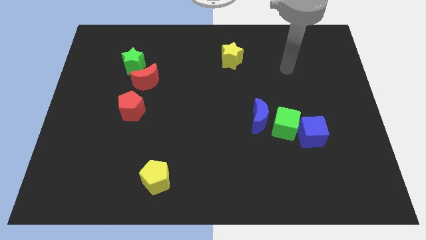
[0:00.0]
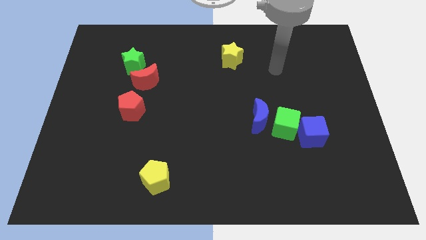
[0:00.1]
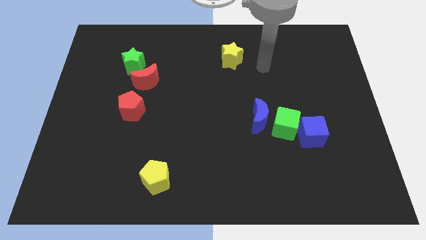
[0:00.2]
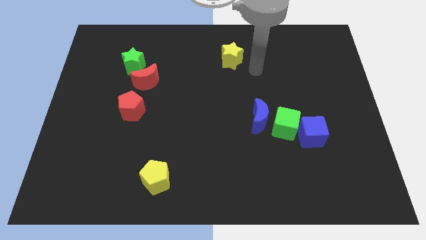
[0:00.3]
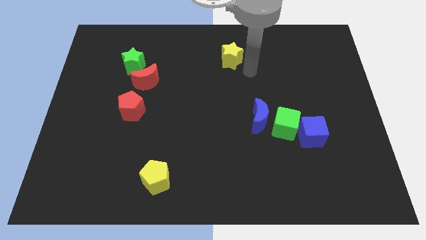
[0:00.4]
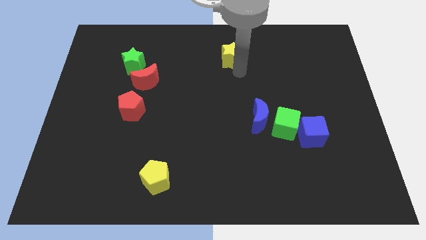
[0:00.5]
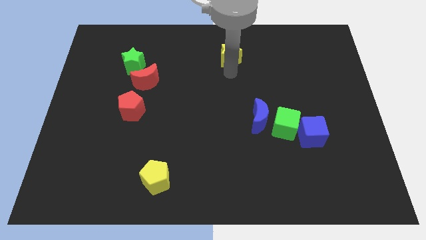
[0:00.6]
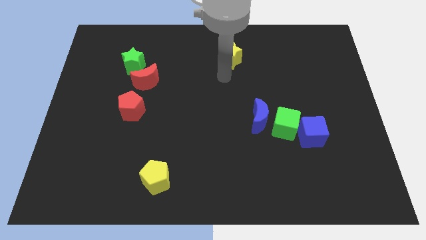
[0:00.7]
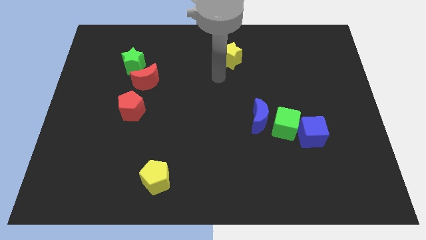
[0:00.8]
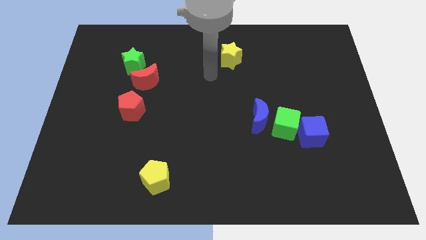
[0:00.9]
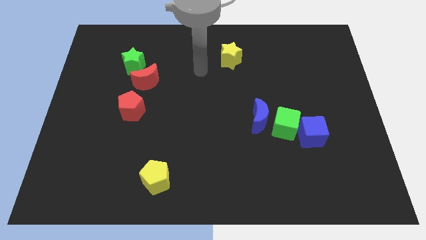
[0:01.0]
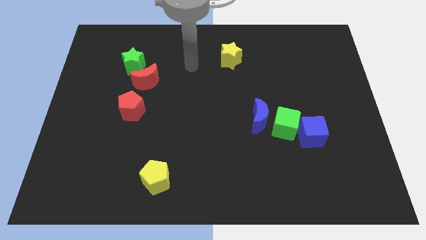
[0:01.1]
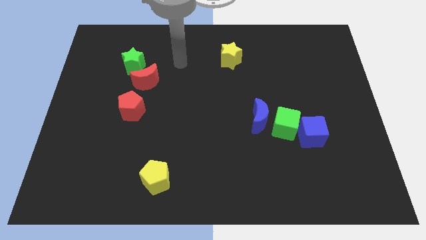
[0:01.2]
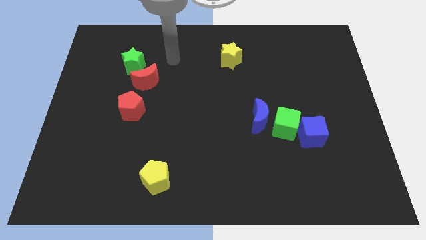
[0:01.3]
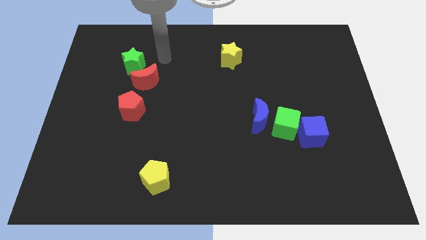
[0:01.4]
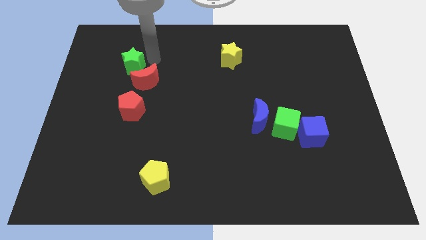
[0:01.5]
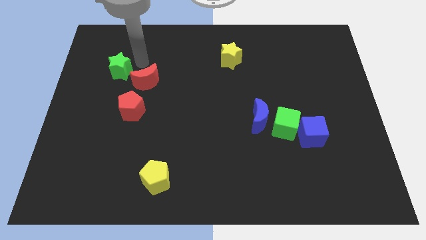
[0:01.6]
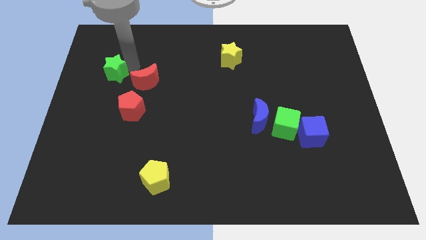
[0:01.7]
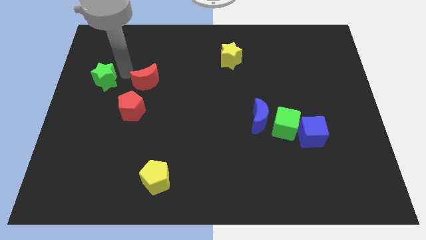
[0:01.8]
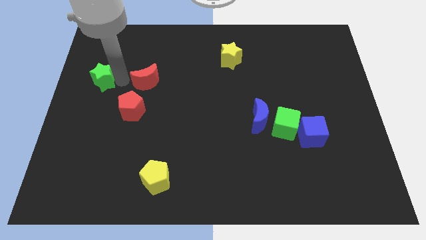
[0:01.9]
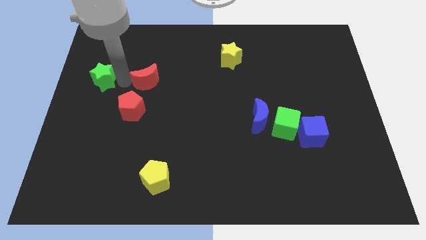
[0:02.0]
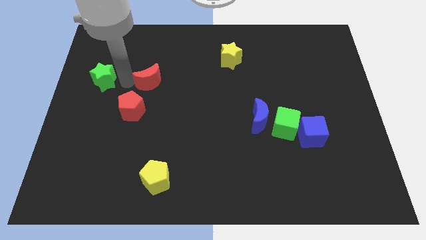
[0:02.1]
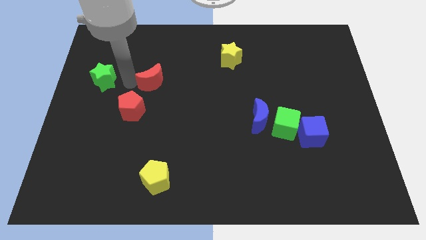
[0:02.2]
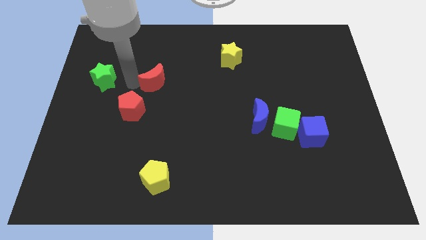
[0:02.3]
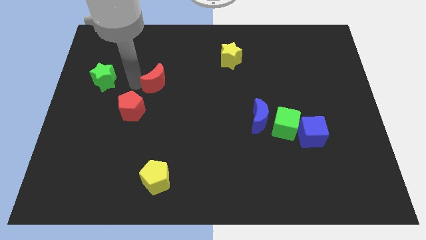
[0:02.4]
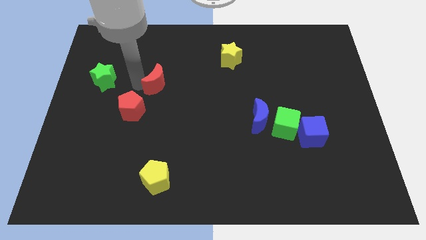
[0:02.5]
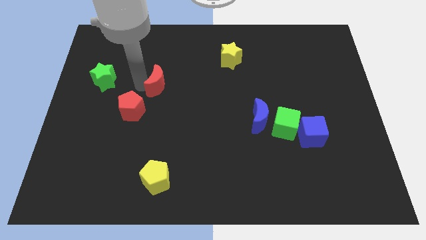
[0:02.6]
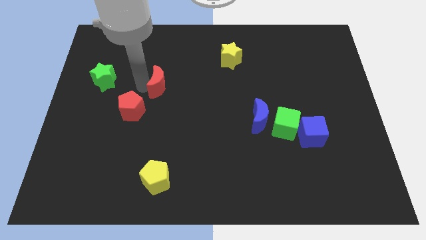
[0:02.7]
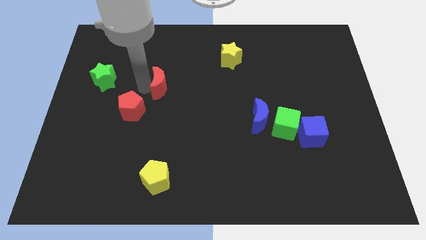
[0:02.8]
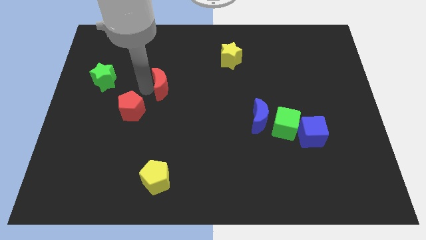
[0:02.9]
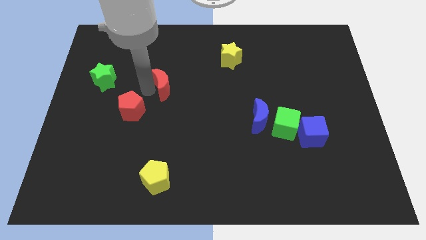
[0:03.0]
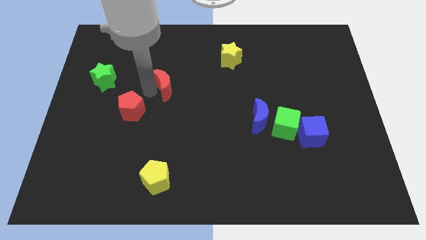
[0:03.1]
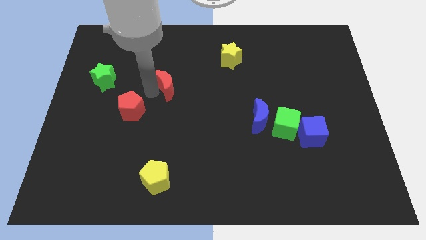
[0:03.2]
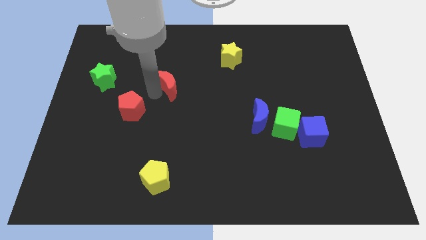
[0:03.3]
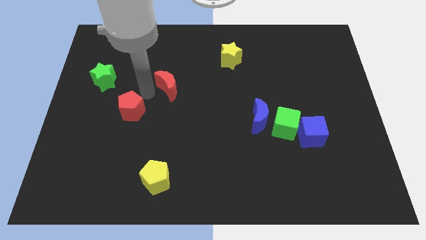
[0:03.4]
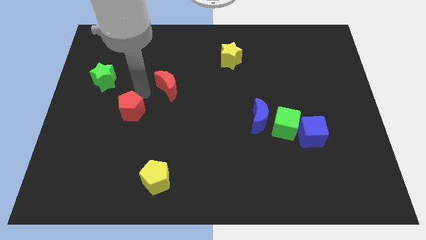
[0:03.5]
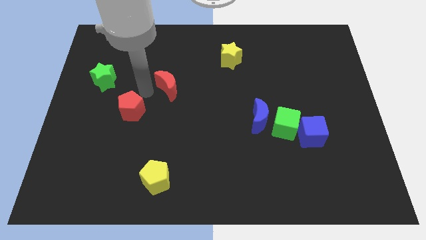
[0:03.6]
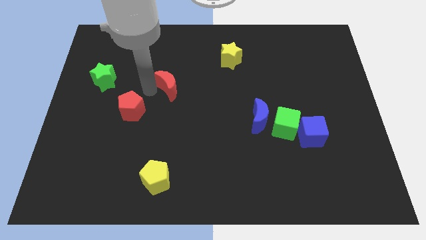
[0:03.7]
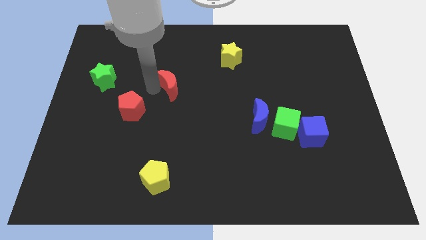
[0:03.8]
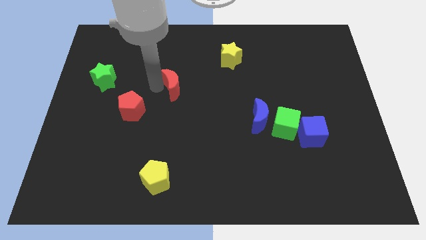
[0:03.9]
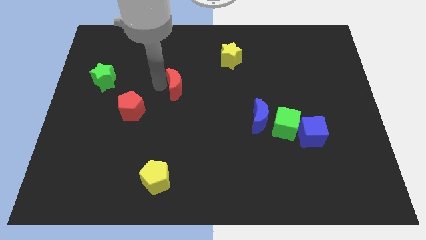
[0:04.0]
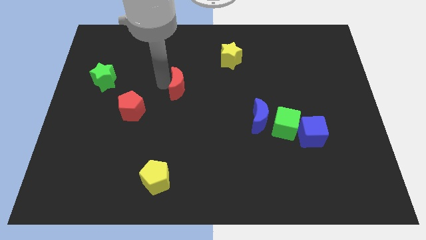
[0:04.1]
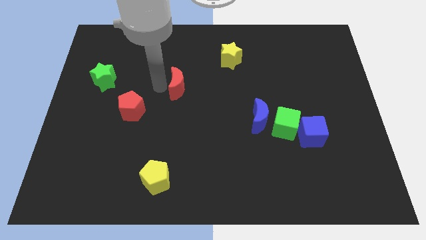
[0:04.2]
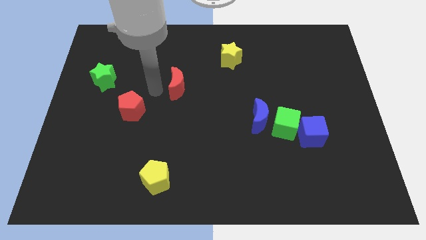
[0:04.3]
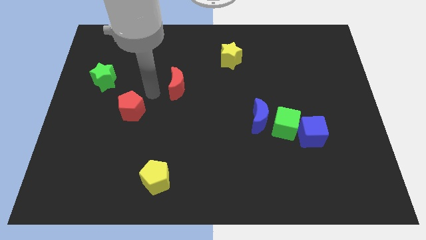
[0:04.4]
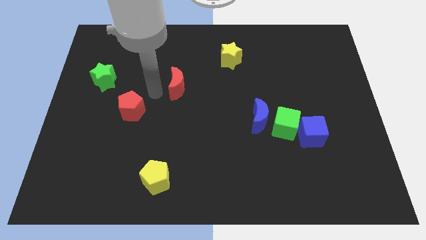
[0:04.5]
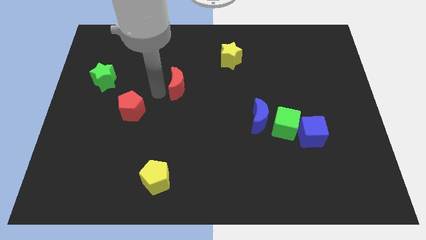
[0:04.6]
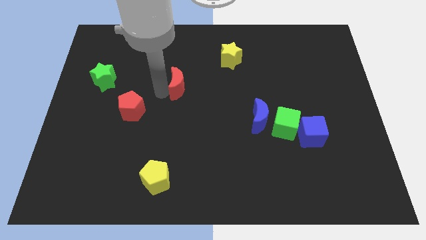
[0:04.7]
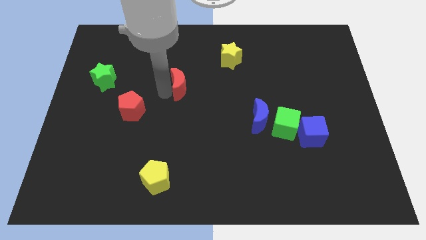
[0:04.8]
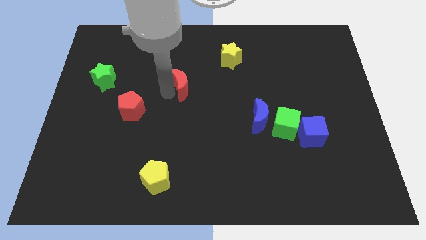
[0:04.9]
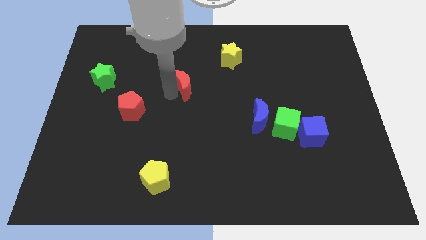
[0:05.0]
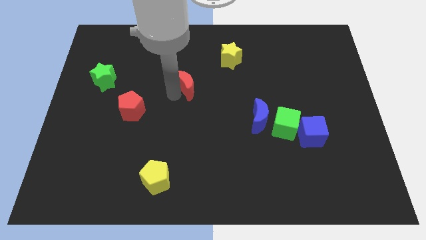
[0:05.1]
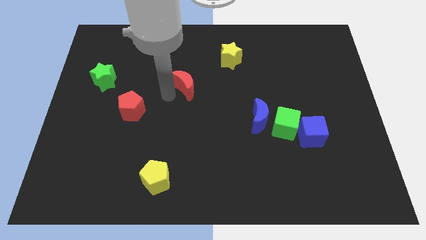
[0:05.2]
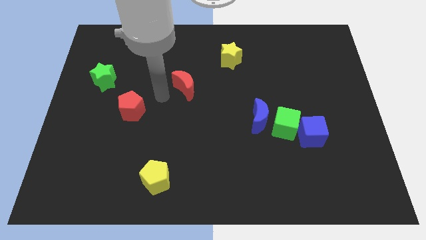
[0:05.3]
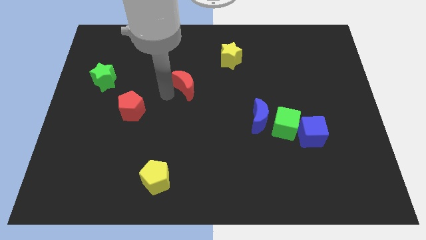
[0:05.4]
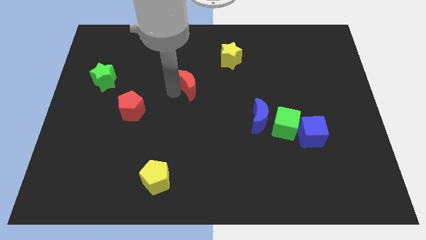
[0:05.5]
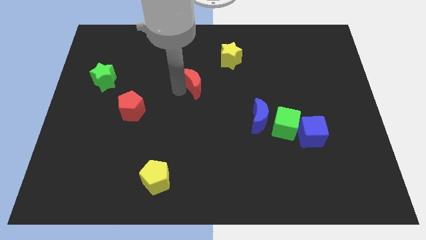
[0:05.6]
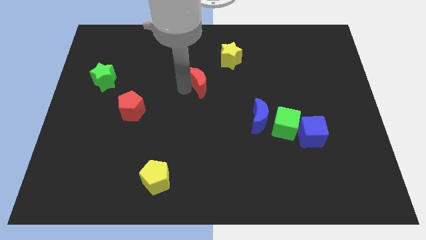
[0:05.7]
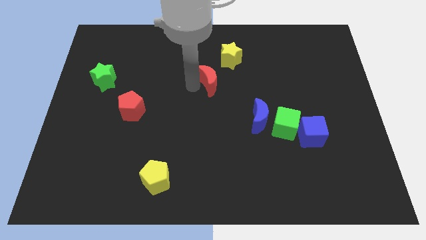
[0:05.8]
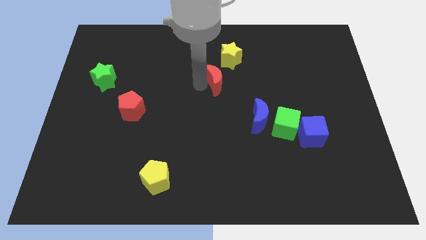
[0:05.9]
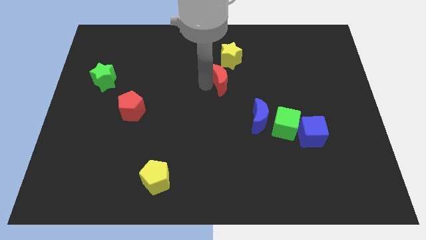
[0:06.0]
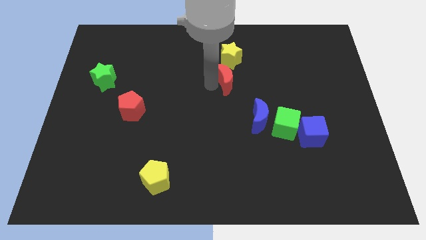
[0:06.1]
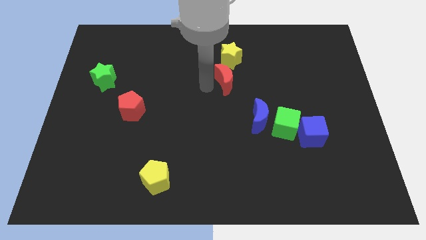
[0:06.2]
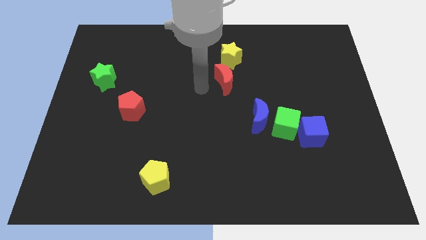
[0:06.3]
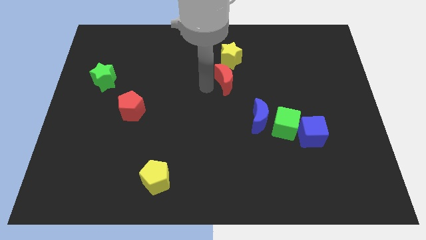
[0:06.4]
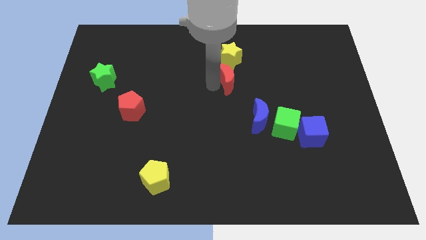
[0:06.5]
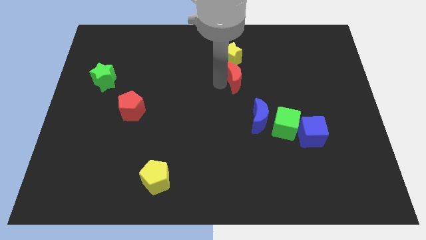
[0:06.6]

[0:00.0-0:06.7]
move the red moon to the bottom right of the yellow star

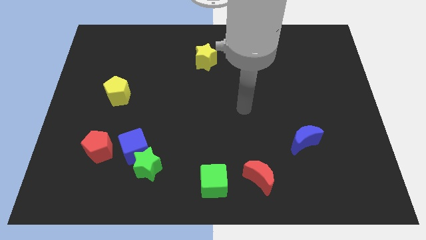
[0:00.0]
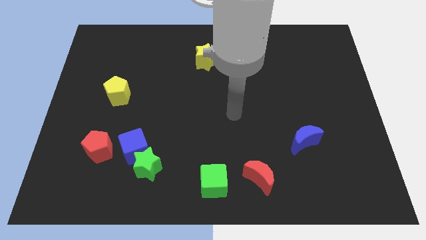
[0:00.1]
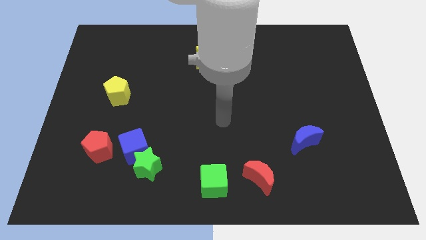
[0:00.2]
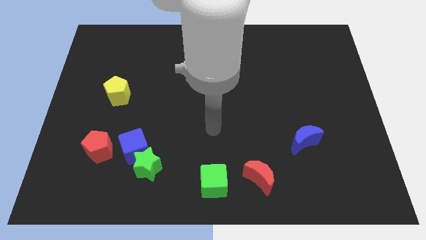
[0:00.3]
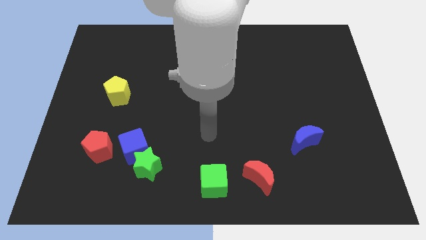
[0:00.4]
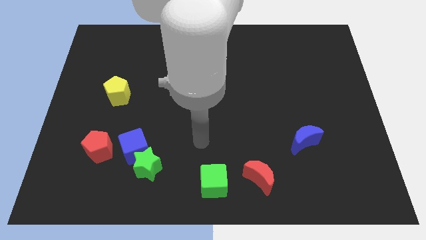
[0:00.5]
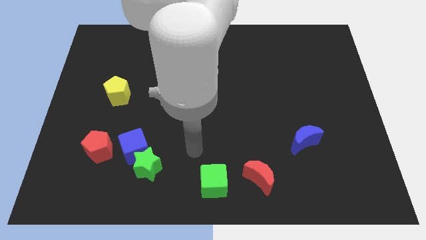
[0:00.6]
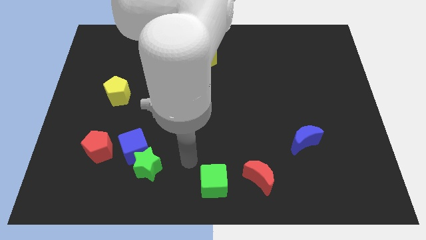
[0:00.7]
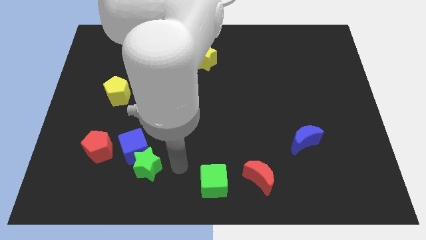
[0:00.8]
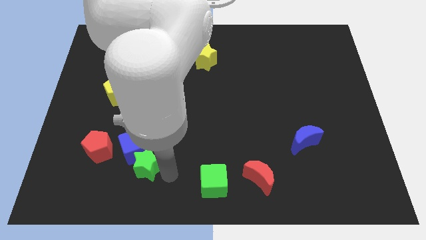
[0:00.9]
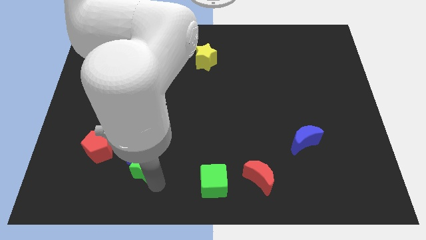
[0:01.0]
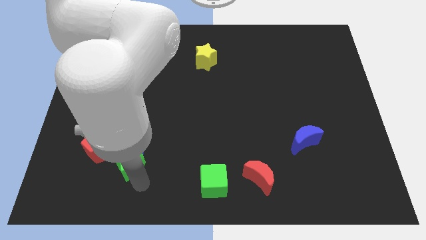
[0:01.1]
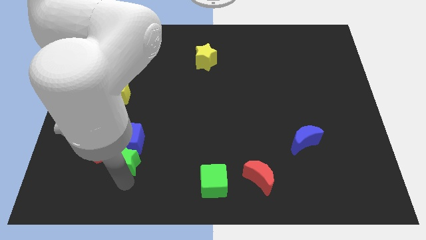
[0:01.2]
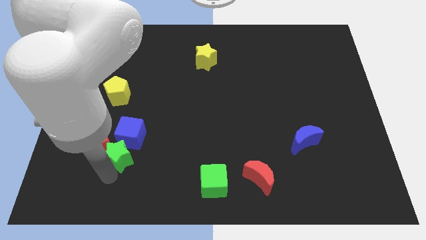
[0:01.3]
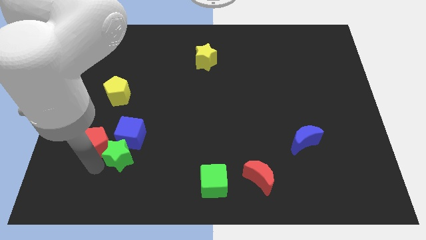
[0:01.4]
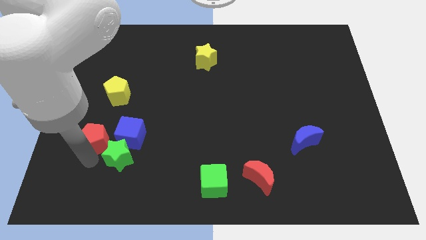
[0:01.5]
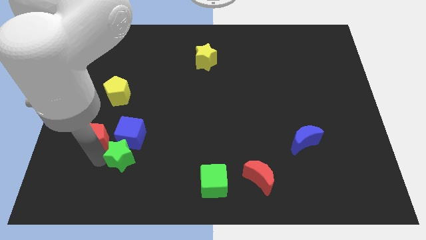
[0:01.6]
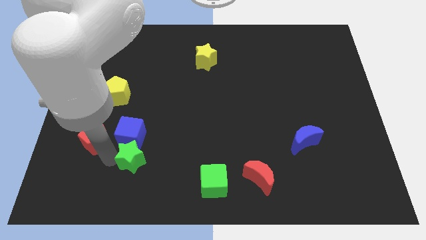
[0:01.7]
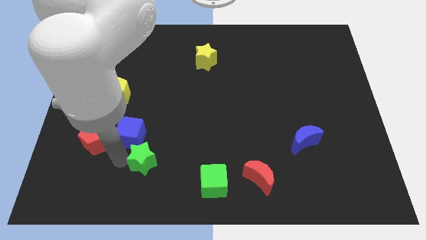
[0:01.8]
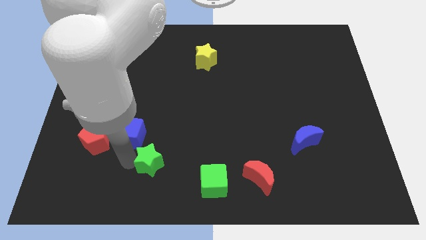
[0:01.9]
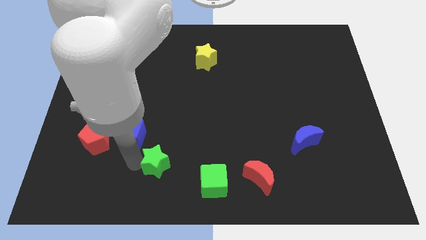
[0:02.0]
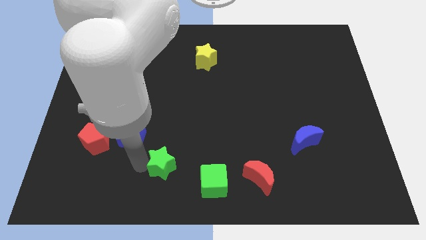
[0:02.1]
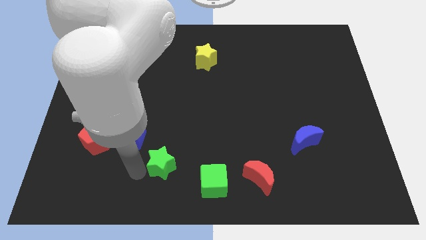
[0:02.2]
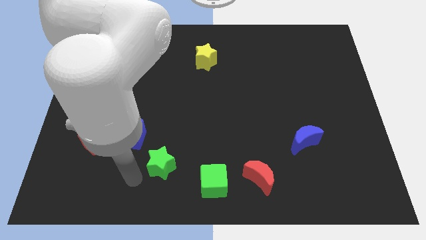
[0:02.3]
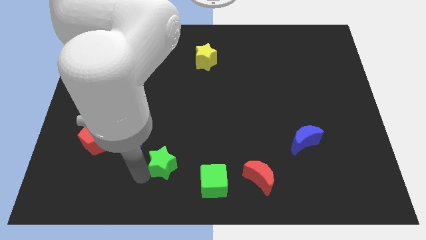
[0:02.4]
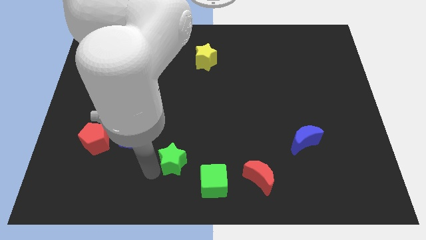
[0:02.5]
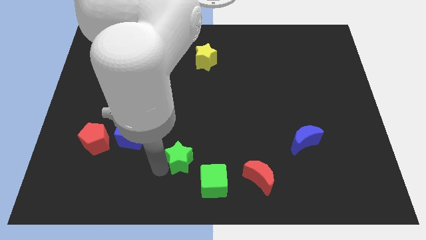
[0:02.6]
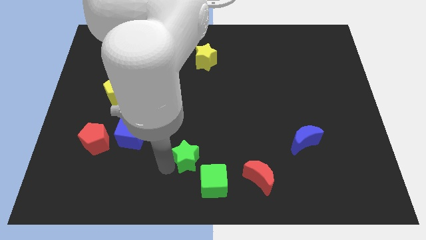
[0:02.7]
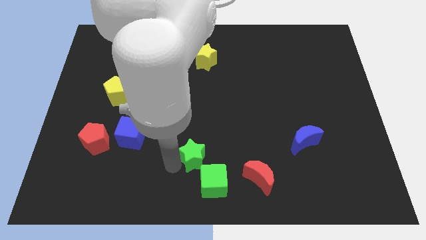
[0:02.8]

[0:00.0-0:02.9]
move the green star above the green cube
